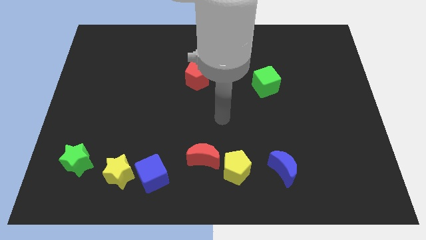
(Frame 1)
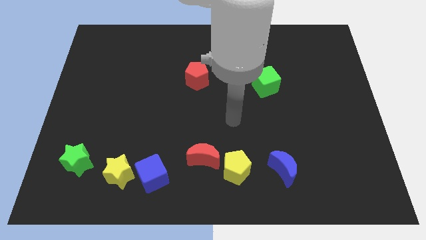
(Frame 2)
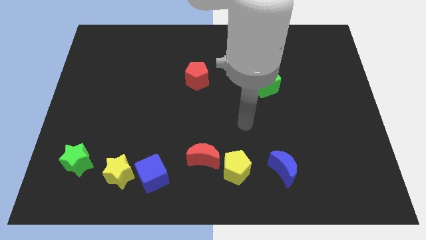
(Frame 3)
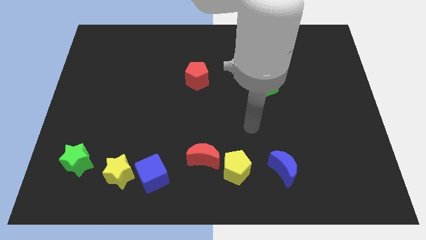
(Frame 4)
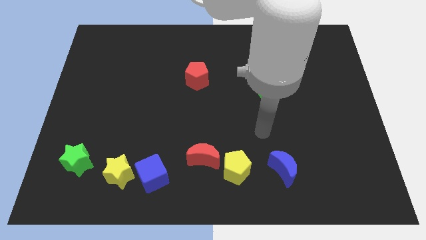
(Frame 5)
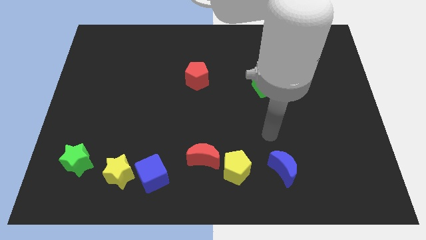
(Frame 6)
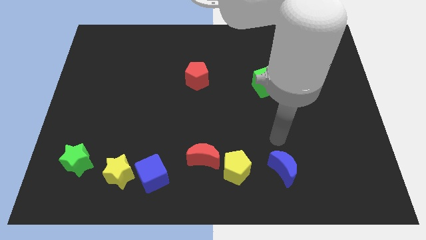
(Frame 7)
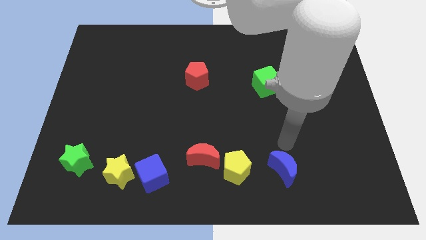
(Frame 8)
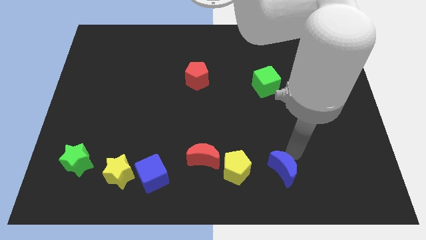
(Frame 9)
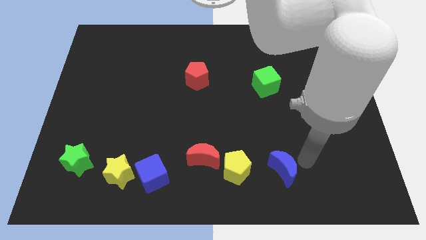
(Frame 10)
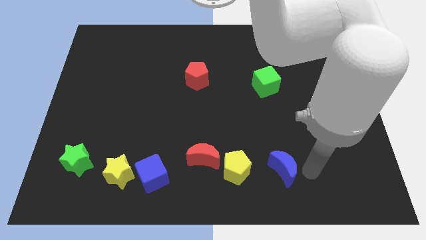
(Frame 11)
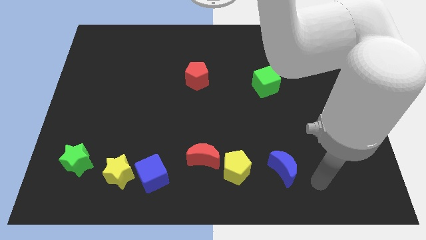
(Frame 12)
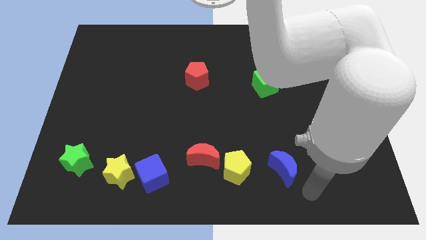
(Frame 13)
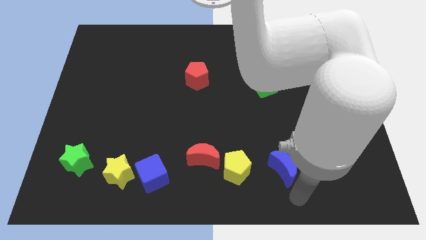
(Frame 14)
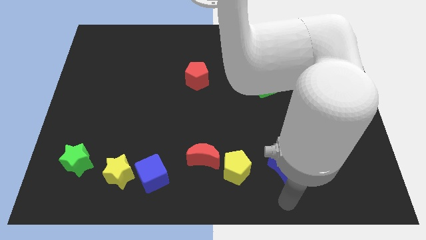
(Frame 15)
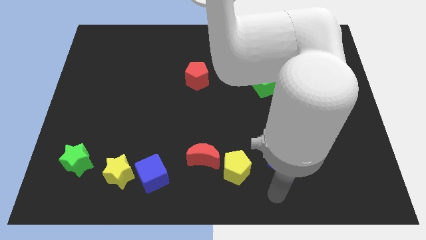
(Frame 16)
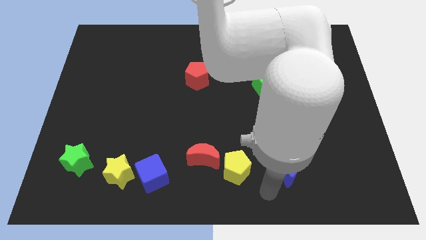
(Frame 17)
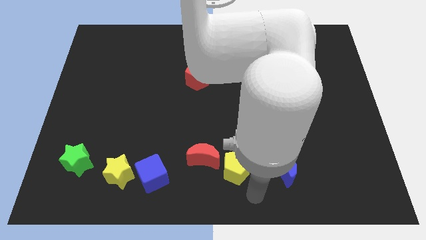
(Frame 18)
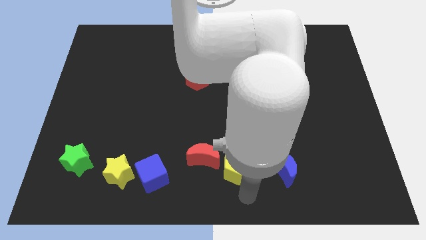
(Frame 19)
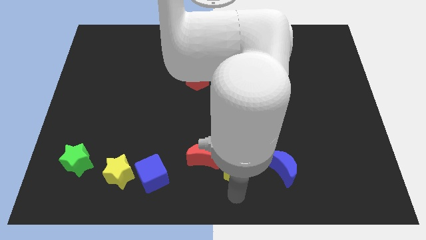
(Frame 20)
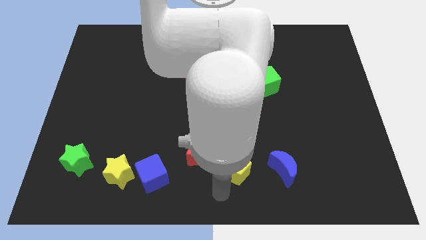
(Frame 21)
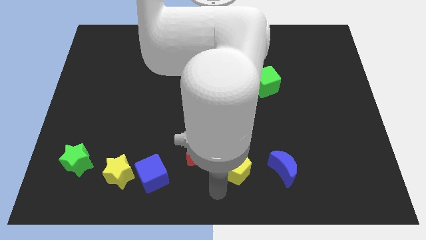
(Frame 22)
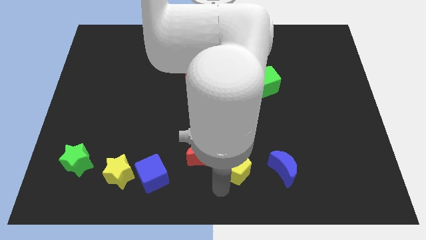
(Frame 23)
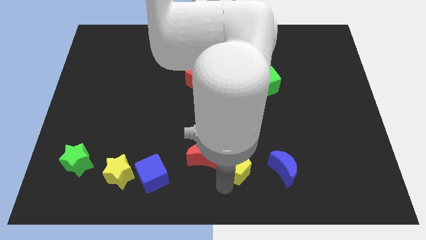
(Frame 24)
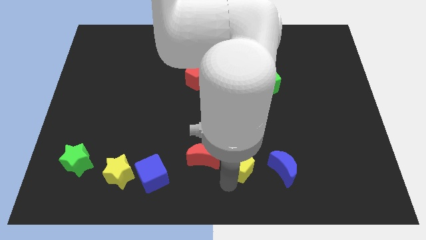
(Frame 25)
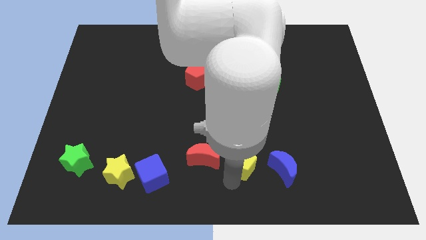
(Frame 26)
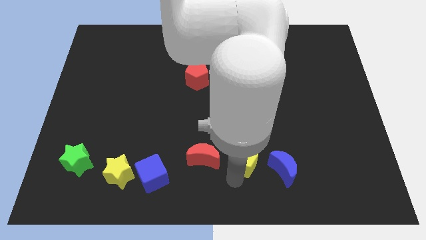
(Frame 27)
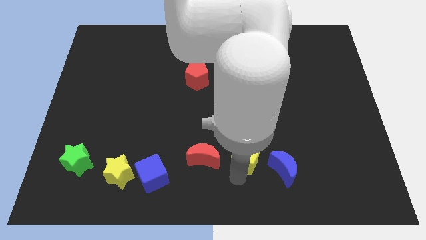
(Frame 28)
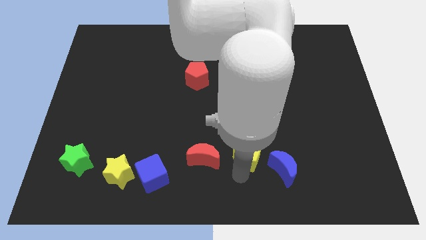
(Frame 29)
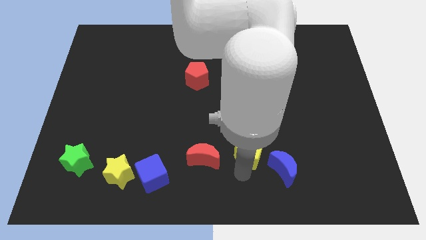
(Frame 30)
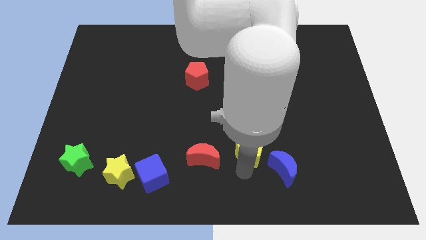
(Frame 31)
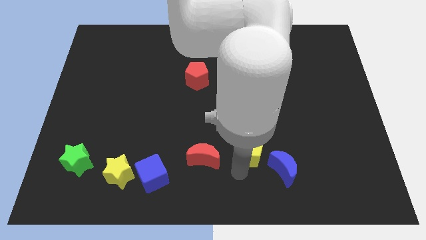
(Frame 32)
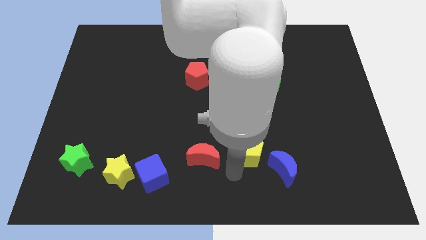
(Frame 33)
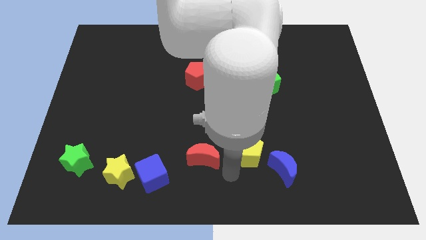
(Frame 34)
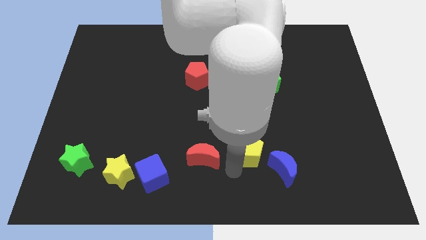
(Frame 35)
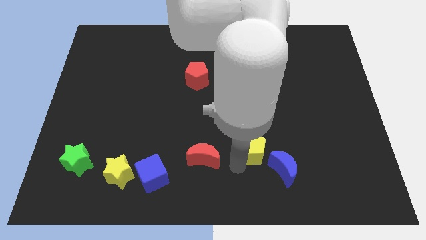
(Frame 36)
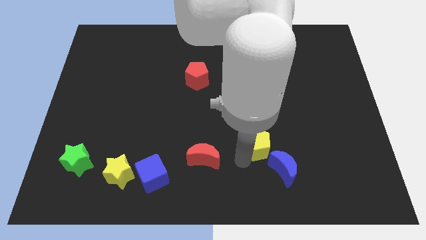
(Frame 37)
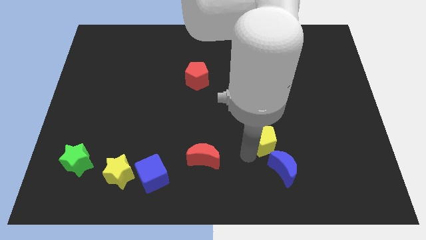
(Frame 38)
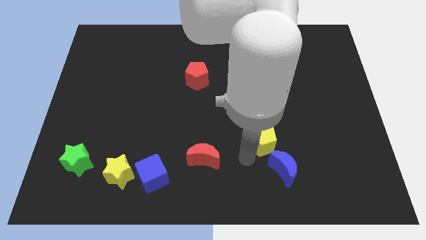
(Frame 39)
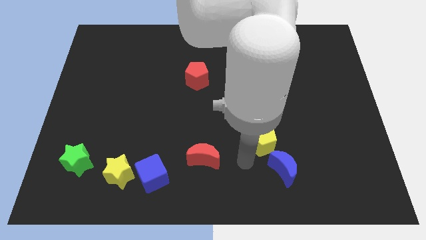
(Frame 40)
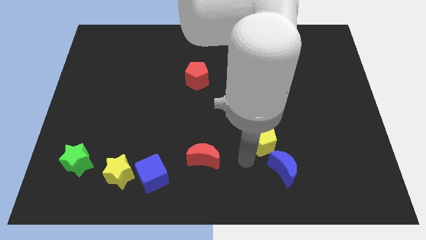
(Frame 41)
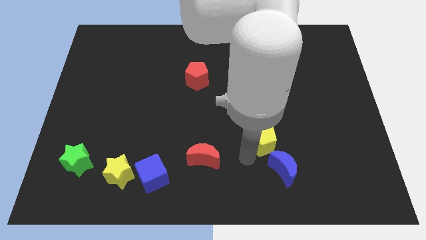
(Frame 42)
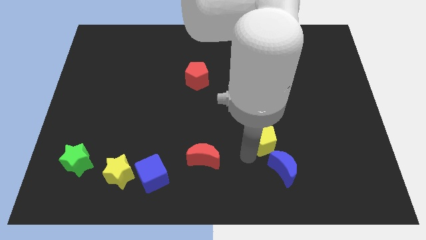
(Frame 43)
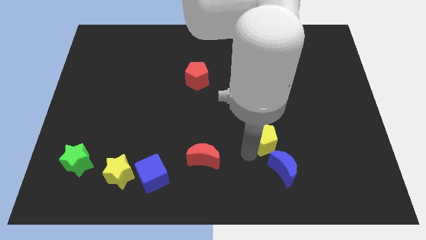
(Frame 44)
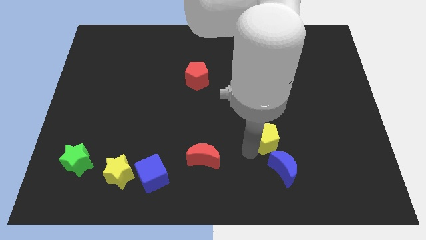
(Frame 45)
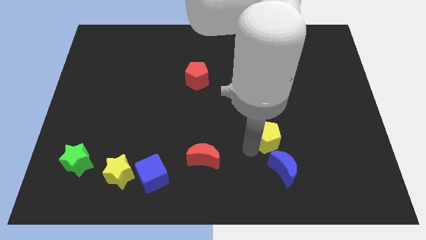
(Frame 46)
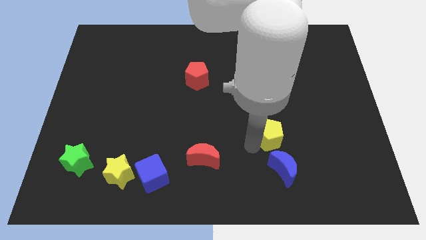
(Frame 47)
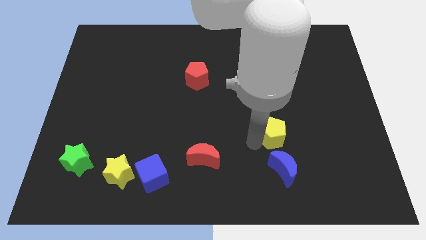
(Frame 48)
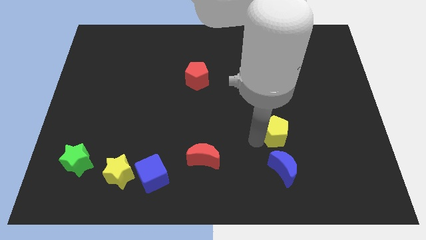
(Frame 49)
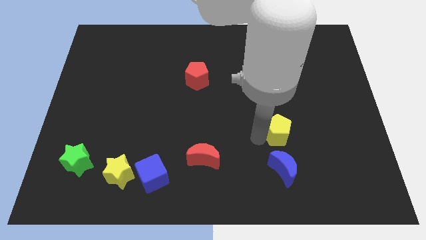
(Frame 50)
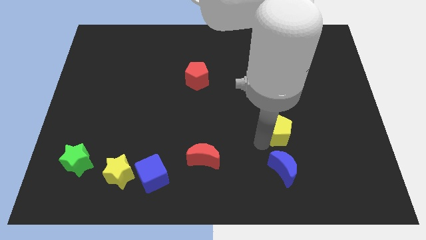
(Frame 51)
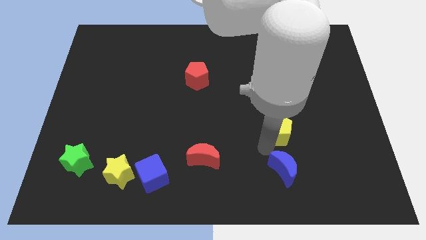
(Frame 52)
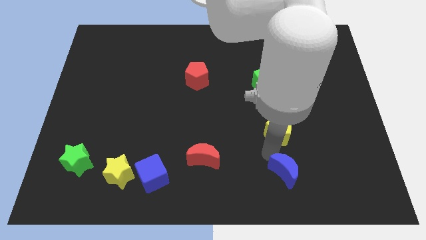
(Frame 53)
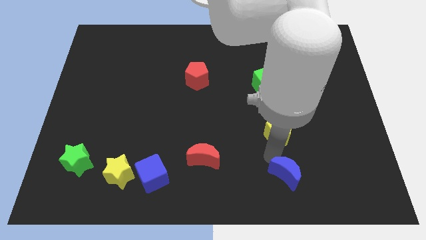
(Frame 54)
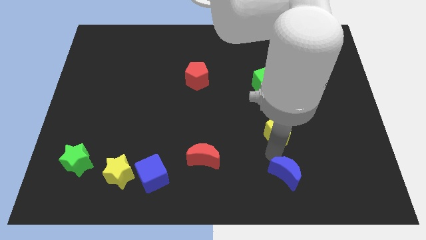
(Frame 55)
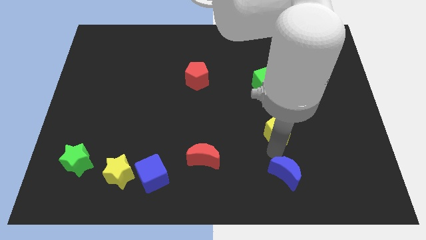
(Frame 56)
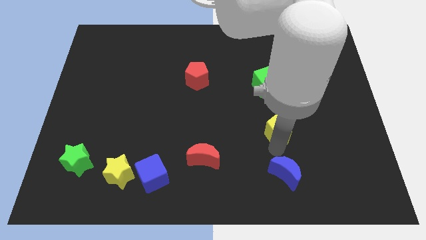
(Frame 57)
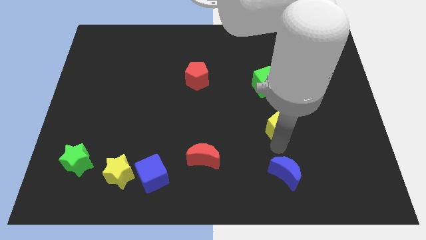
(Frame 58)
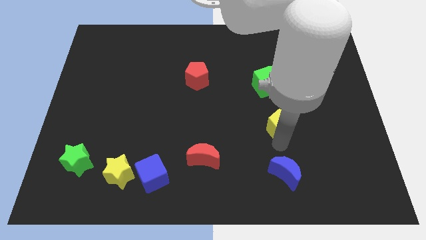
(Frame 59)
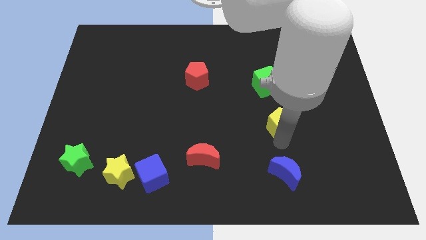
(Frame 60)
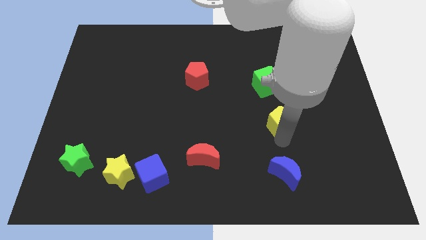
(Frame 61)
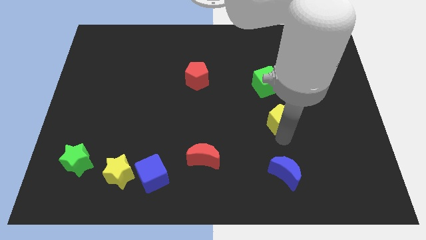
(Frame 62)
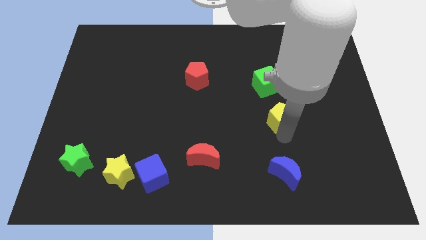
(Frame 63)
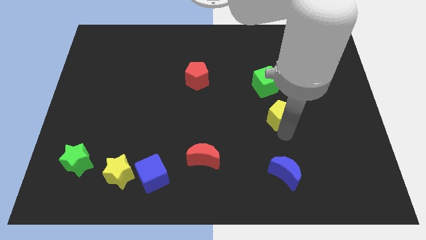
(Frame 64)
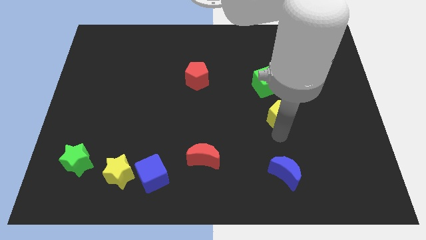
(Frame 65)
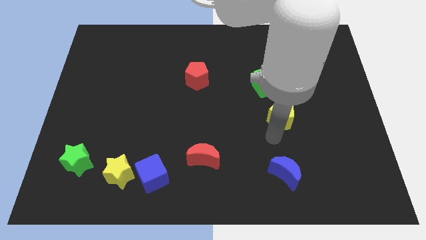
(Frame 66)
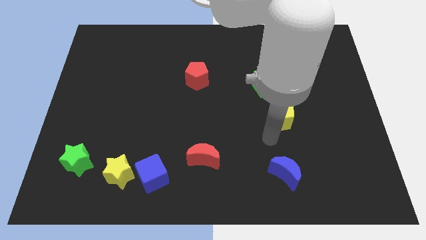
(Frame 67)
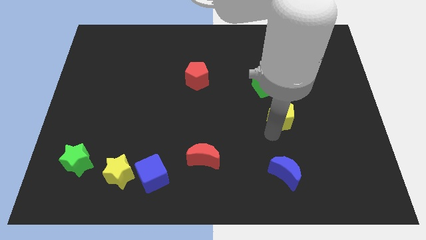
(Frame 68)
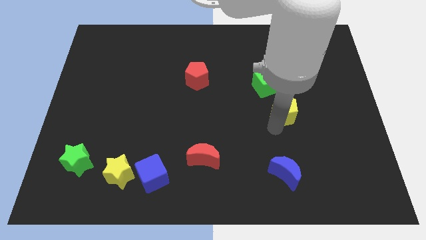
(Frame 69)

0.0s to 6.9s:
put the yellow pentagon diagonally down and to the right of the green cube

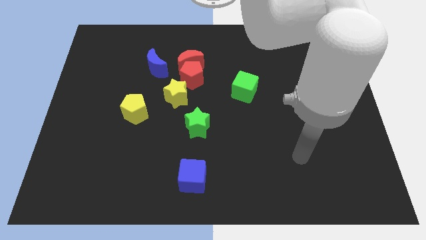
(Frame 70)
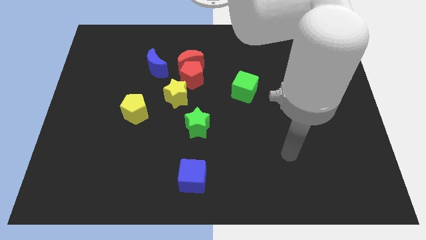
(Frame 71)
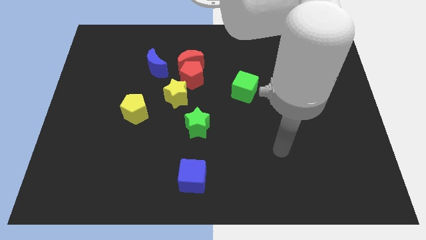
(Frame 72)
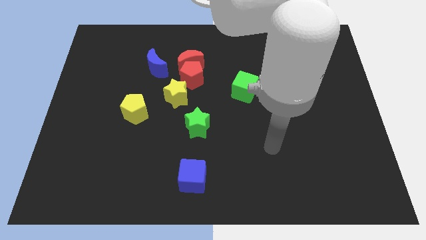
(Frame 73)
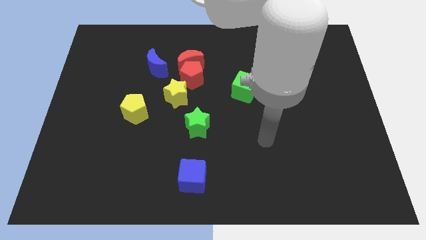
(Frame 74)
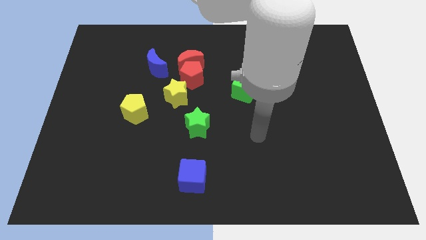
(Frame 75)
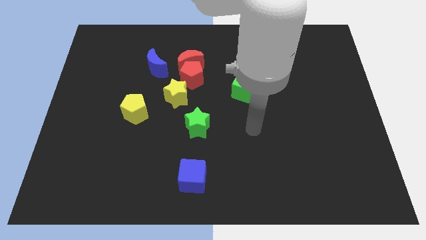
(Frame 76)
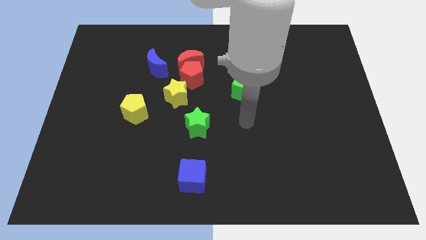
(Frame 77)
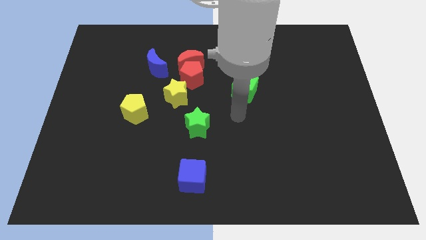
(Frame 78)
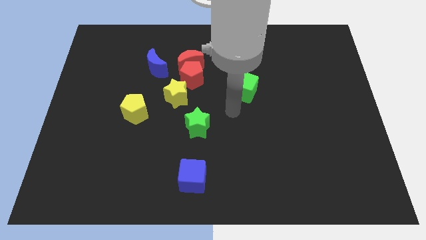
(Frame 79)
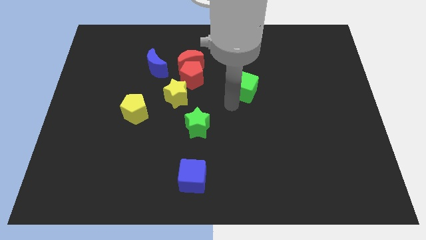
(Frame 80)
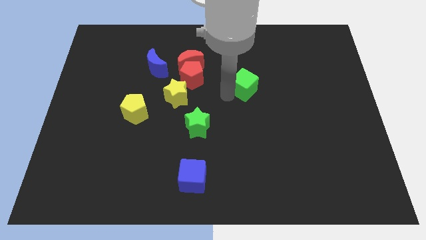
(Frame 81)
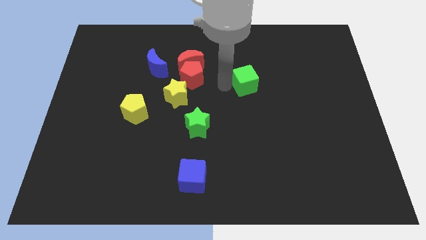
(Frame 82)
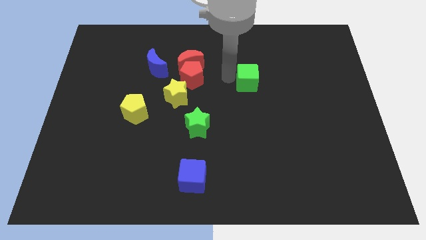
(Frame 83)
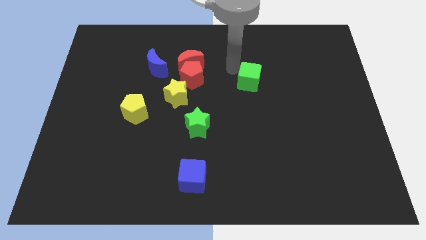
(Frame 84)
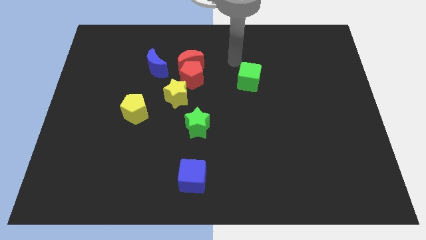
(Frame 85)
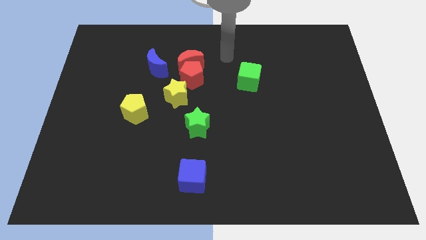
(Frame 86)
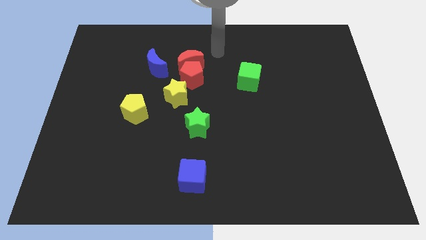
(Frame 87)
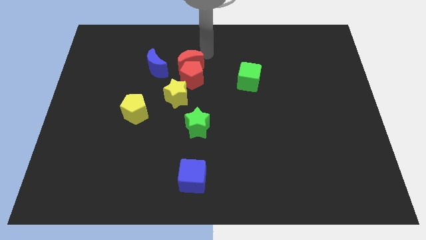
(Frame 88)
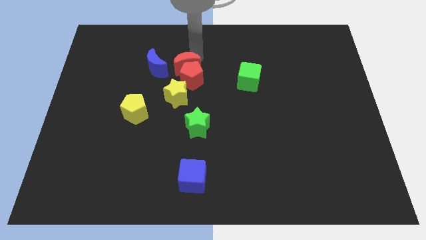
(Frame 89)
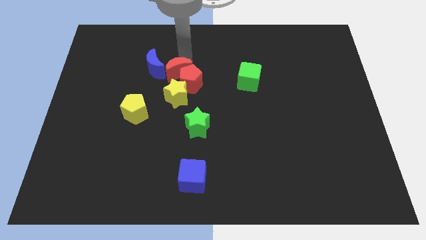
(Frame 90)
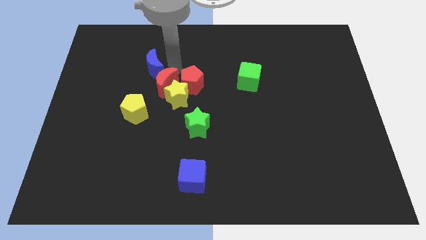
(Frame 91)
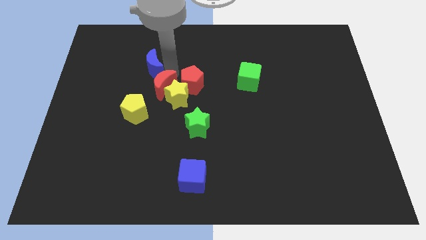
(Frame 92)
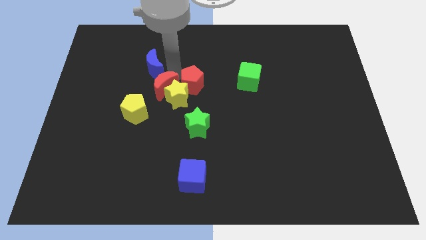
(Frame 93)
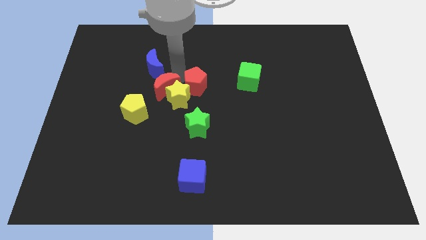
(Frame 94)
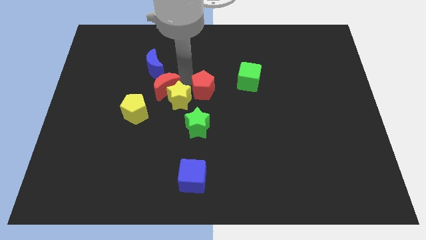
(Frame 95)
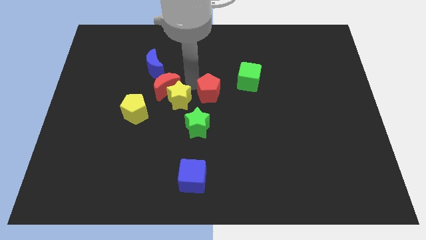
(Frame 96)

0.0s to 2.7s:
move the red pentagon diagonally down and to the left of the green cube
